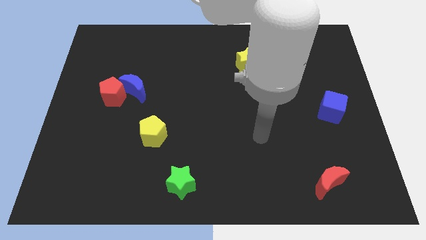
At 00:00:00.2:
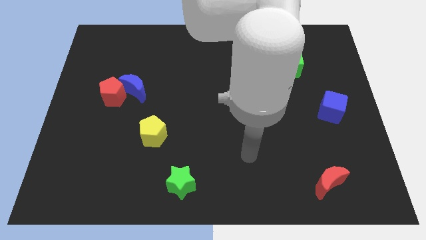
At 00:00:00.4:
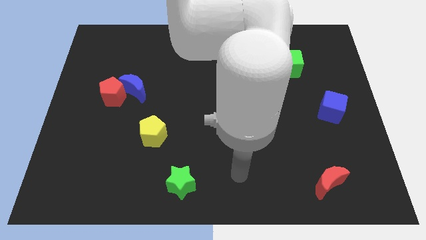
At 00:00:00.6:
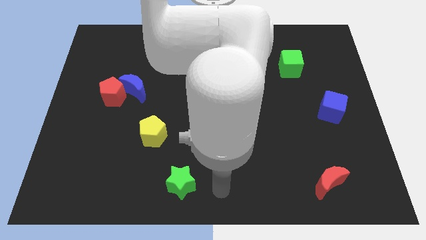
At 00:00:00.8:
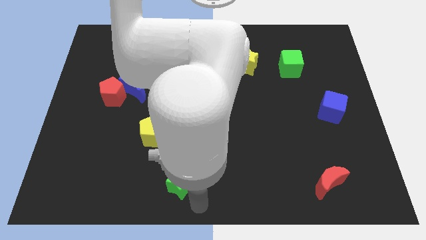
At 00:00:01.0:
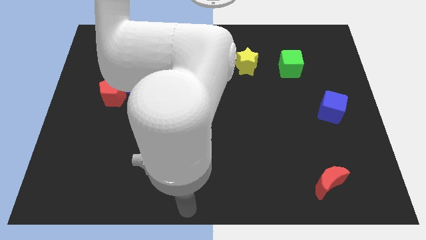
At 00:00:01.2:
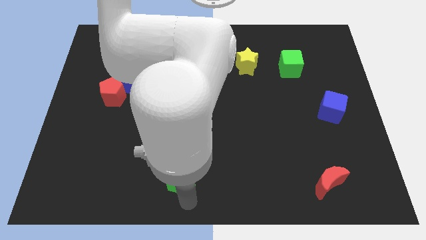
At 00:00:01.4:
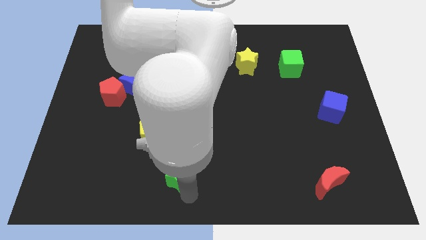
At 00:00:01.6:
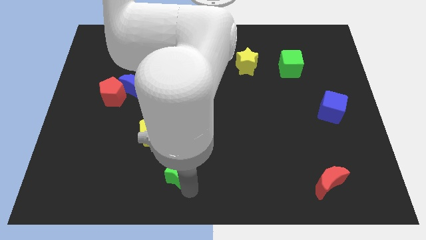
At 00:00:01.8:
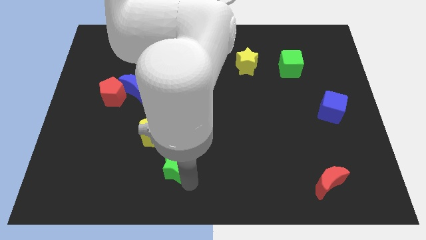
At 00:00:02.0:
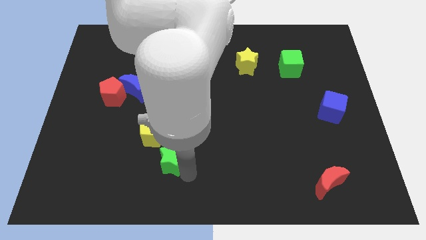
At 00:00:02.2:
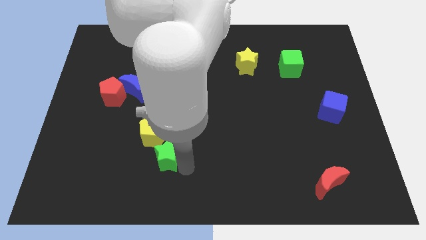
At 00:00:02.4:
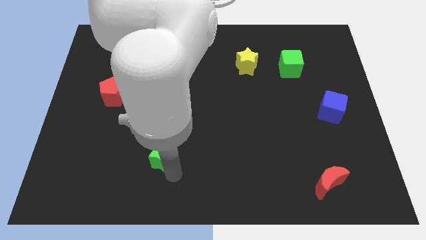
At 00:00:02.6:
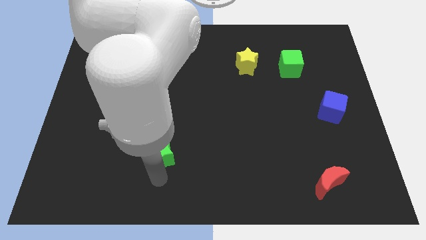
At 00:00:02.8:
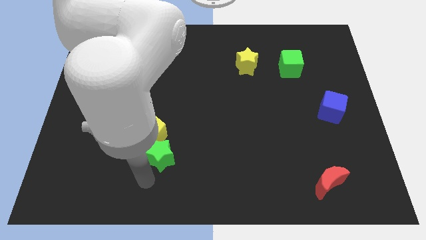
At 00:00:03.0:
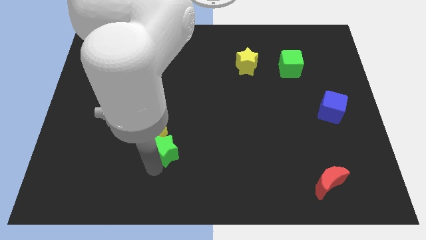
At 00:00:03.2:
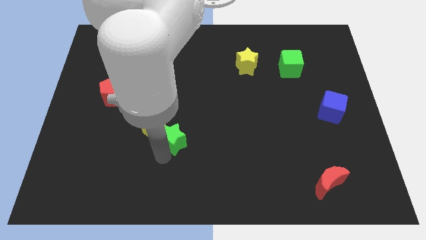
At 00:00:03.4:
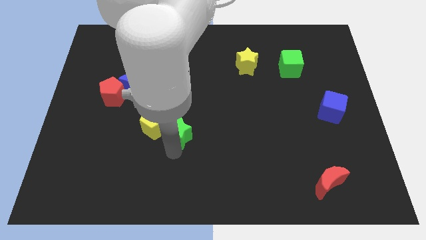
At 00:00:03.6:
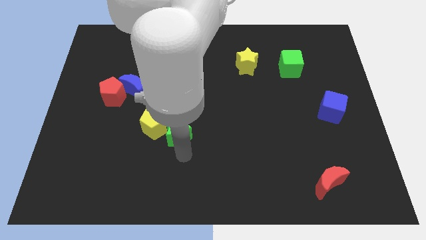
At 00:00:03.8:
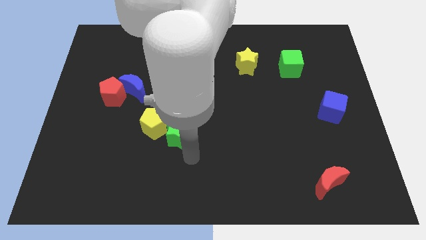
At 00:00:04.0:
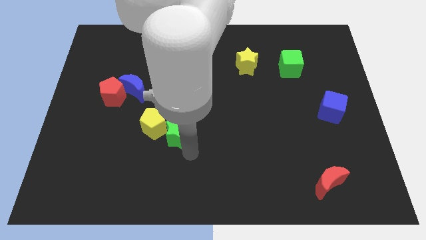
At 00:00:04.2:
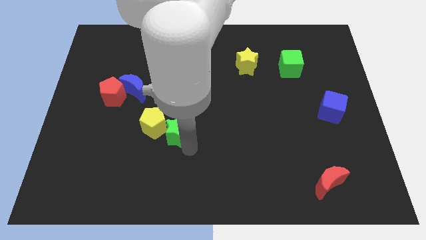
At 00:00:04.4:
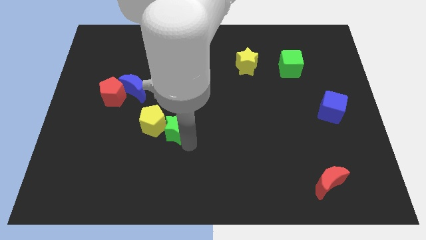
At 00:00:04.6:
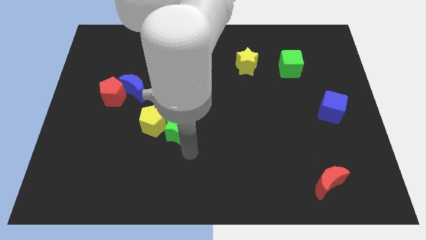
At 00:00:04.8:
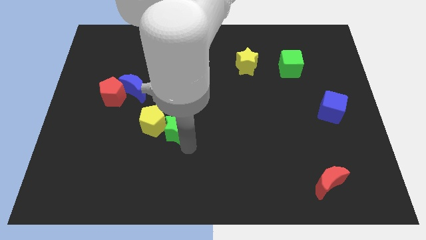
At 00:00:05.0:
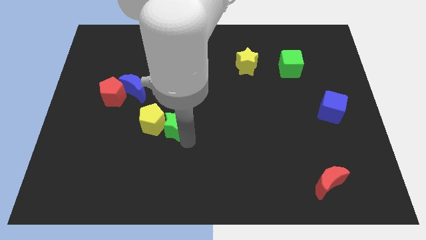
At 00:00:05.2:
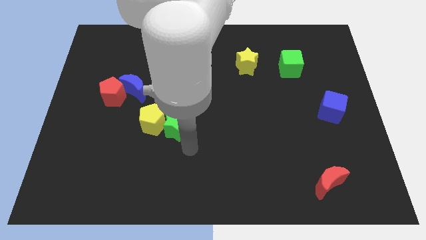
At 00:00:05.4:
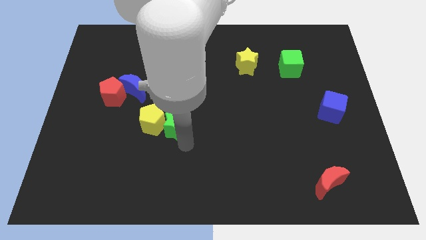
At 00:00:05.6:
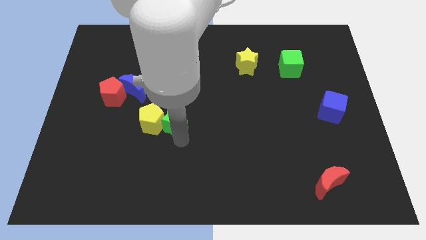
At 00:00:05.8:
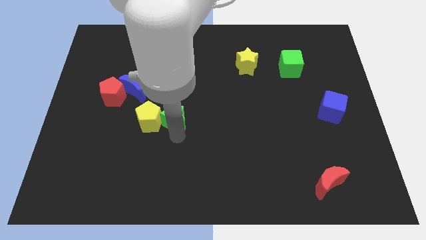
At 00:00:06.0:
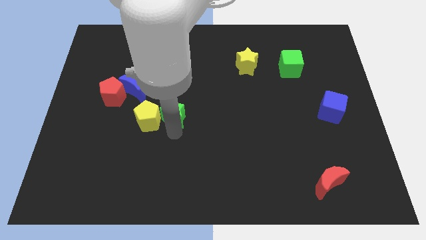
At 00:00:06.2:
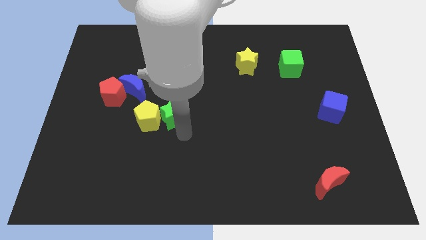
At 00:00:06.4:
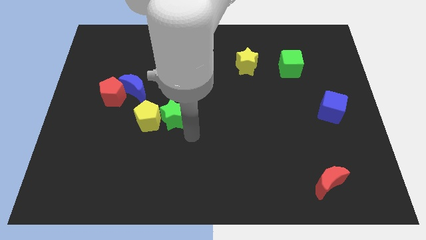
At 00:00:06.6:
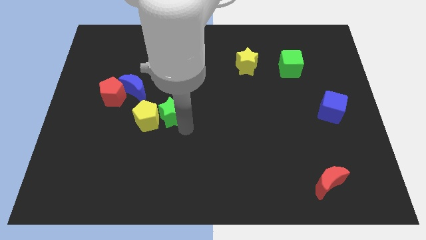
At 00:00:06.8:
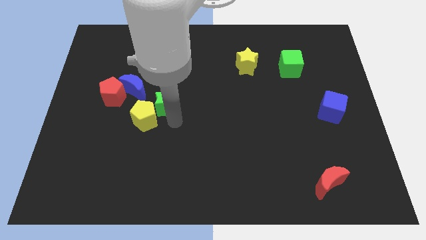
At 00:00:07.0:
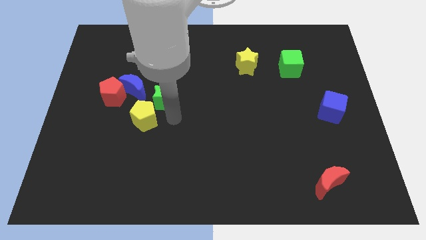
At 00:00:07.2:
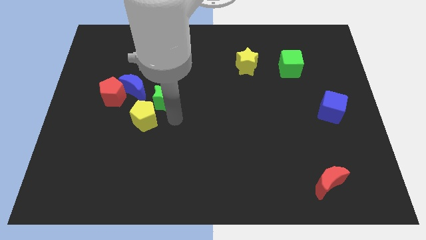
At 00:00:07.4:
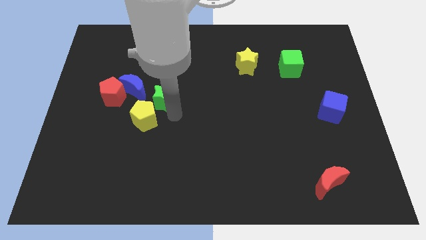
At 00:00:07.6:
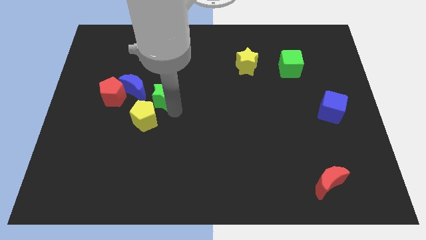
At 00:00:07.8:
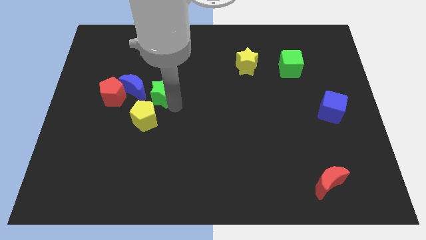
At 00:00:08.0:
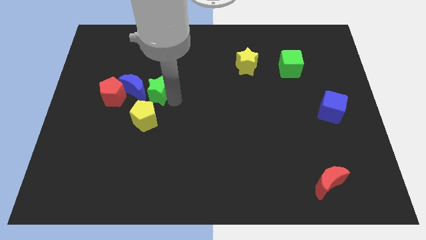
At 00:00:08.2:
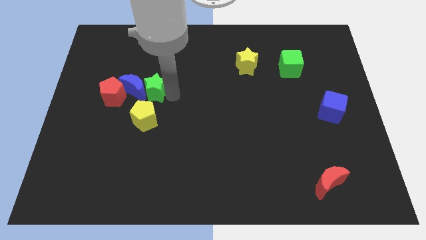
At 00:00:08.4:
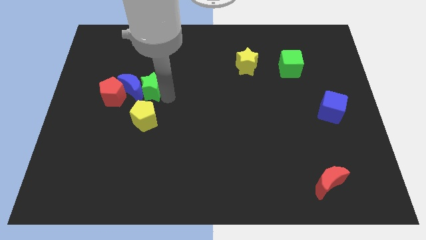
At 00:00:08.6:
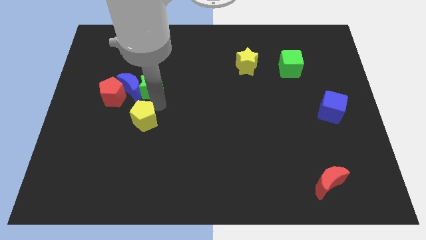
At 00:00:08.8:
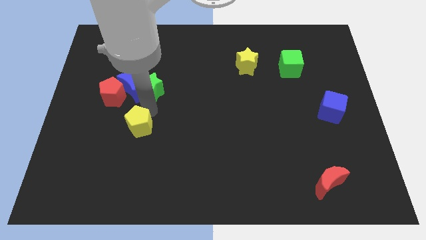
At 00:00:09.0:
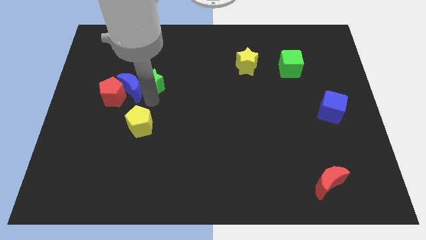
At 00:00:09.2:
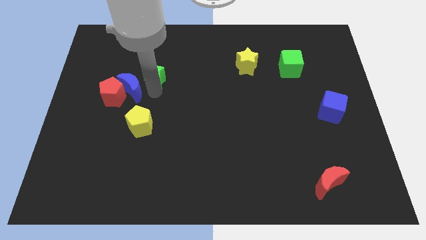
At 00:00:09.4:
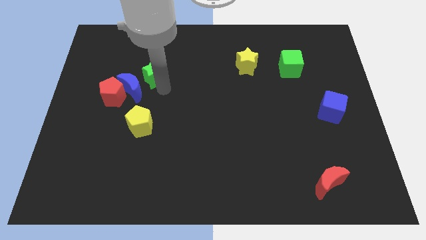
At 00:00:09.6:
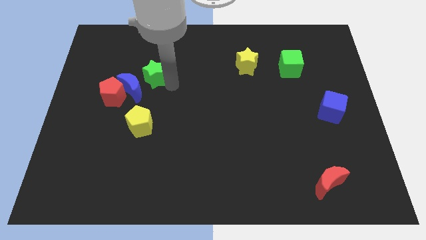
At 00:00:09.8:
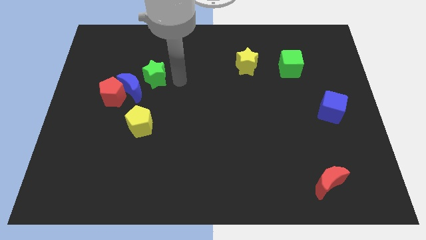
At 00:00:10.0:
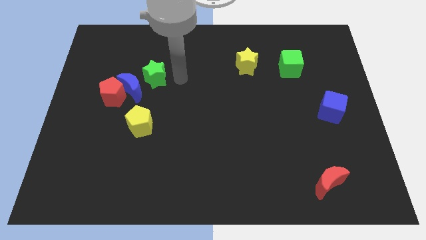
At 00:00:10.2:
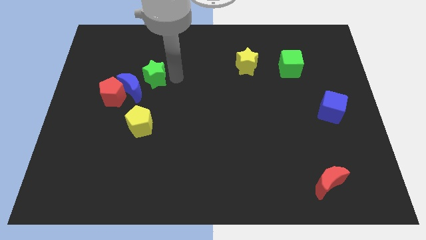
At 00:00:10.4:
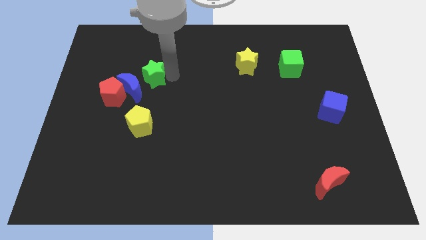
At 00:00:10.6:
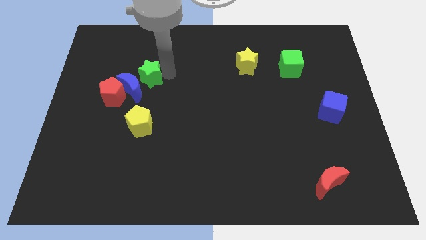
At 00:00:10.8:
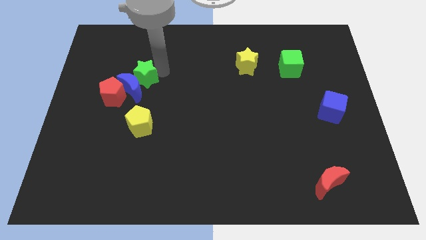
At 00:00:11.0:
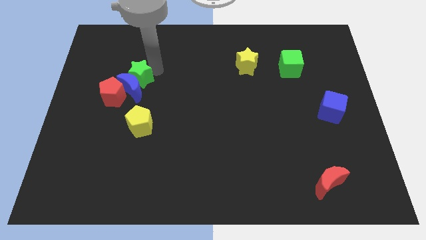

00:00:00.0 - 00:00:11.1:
slide the green star to the top left of the blue moon

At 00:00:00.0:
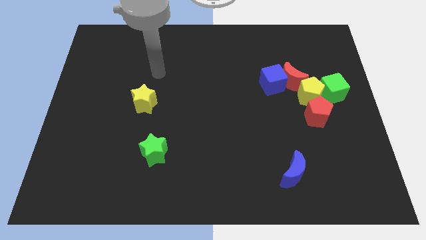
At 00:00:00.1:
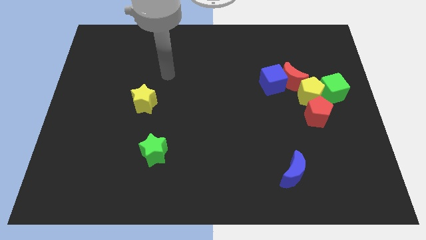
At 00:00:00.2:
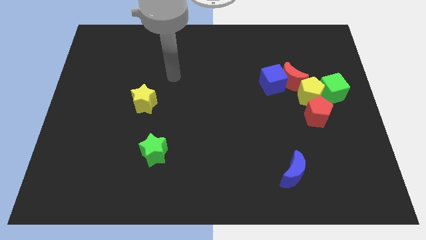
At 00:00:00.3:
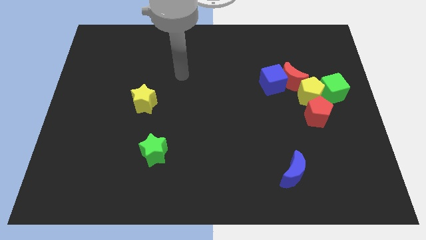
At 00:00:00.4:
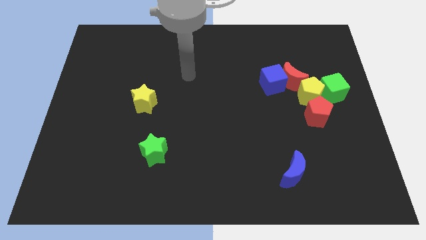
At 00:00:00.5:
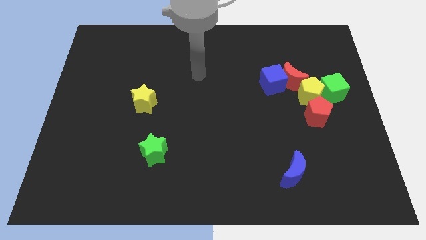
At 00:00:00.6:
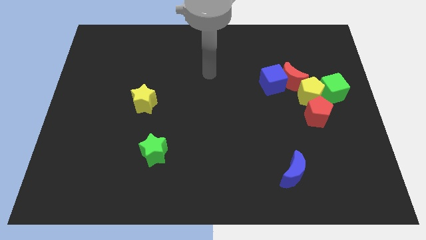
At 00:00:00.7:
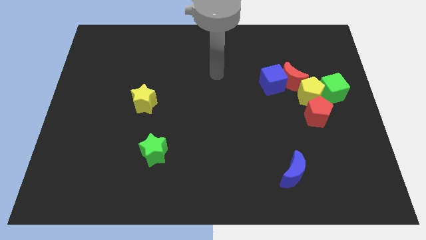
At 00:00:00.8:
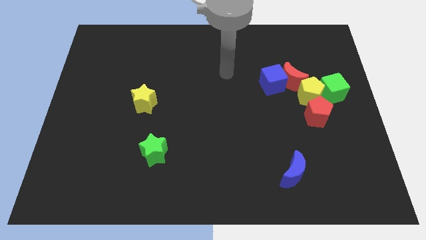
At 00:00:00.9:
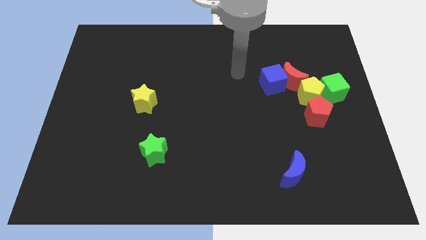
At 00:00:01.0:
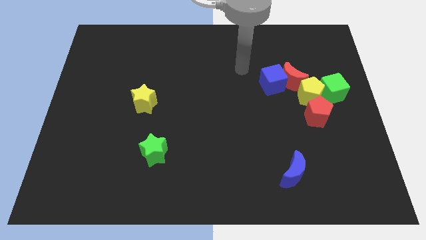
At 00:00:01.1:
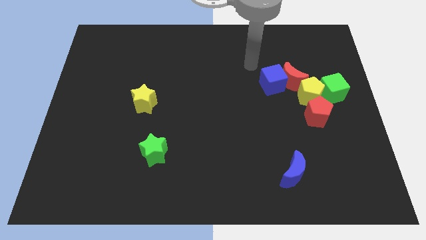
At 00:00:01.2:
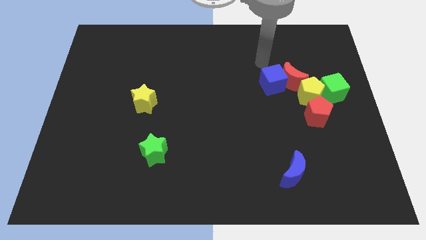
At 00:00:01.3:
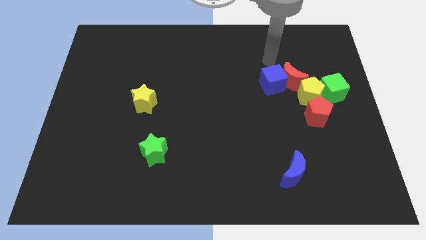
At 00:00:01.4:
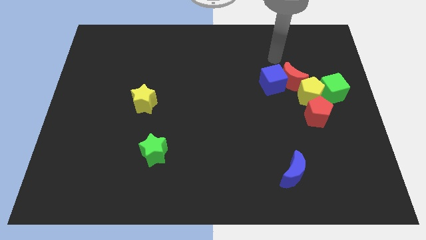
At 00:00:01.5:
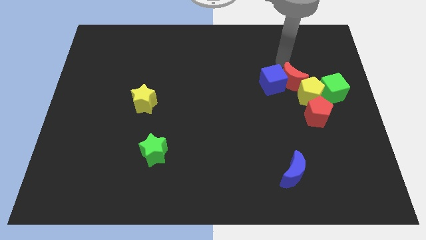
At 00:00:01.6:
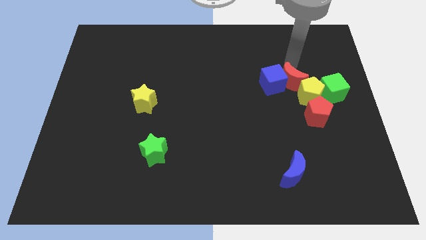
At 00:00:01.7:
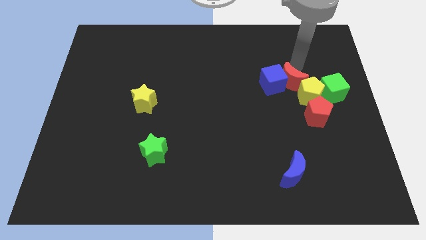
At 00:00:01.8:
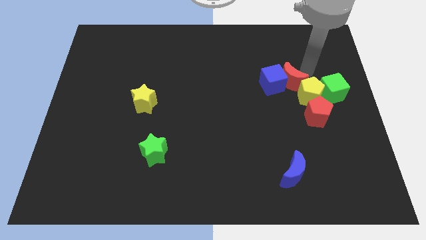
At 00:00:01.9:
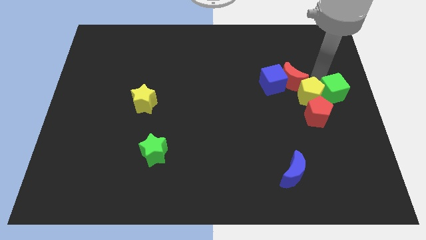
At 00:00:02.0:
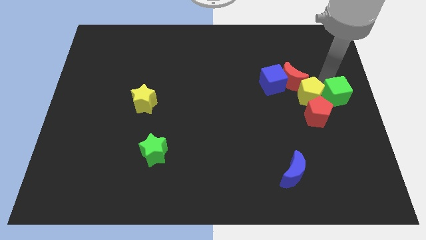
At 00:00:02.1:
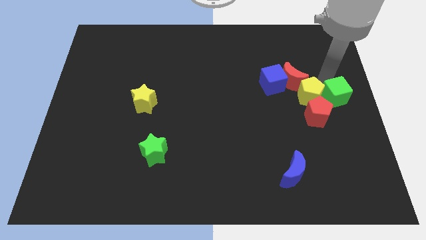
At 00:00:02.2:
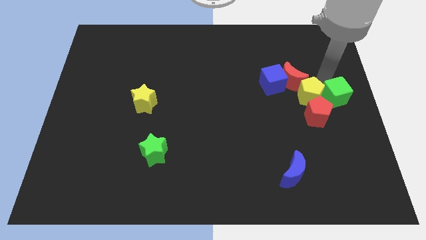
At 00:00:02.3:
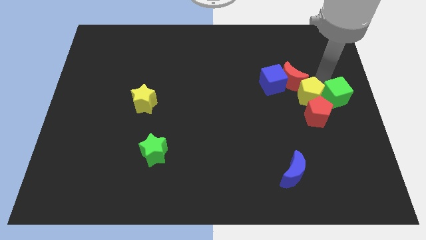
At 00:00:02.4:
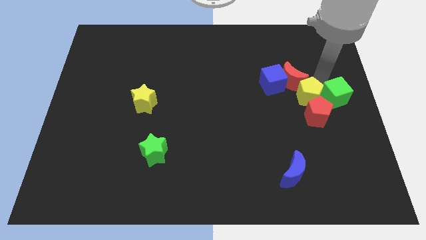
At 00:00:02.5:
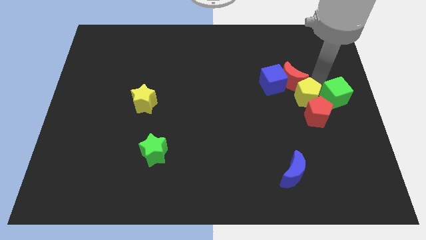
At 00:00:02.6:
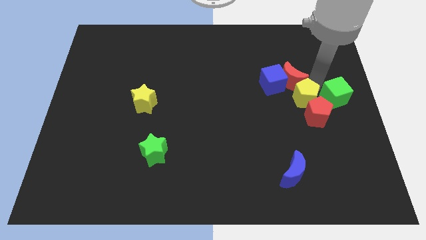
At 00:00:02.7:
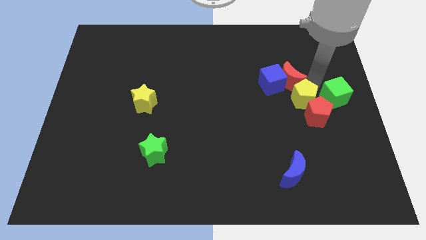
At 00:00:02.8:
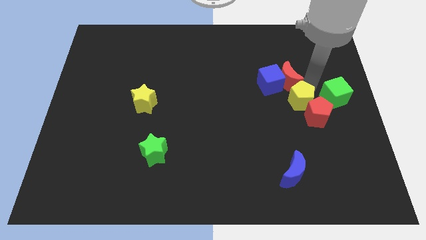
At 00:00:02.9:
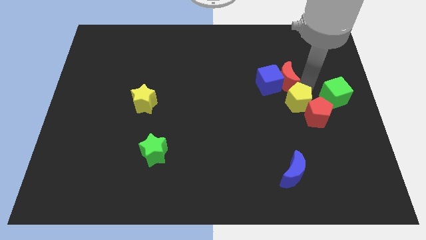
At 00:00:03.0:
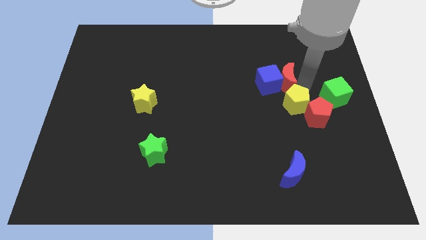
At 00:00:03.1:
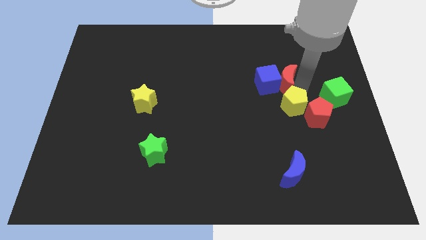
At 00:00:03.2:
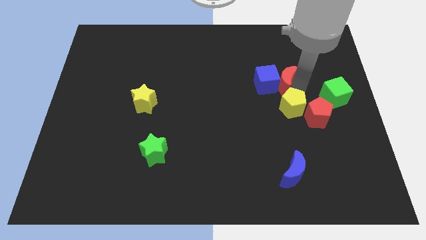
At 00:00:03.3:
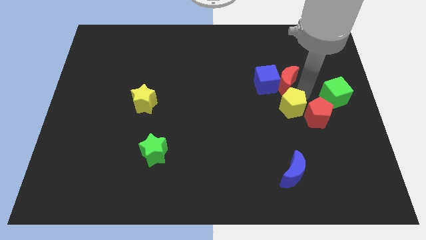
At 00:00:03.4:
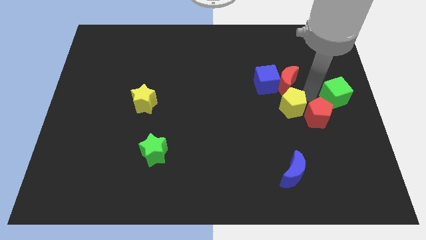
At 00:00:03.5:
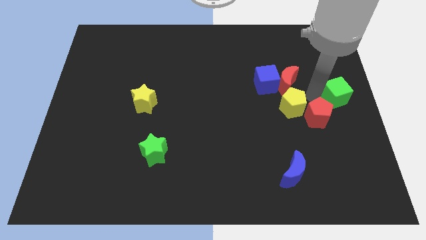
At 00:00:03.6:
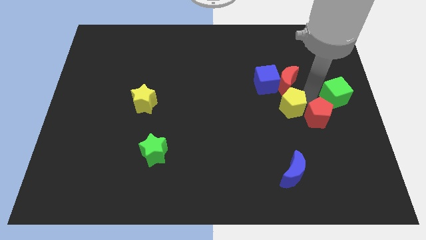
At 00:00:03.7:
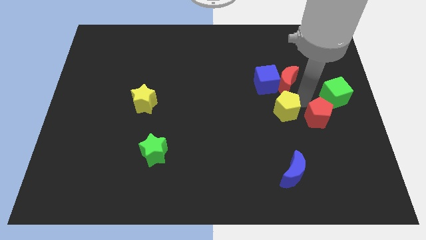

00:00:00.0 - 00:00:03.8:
slide the yellow pentagon to the bottom side of the blue cube
